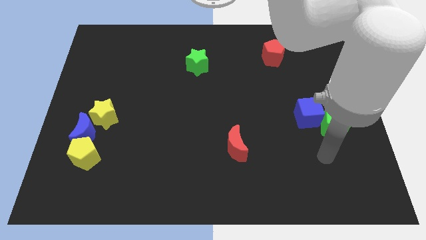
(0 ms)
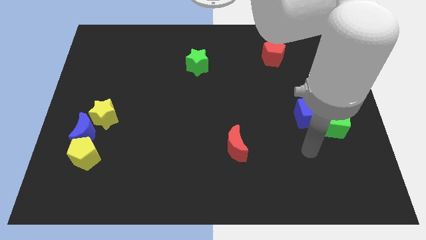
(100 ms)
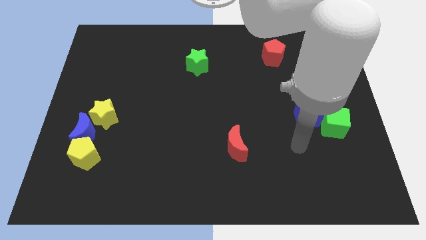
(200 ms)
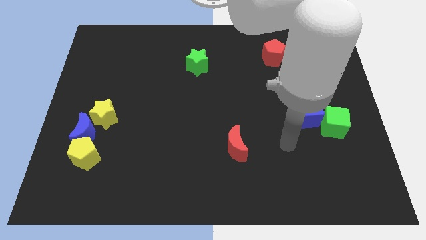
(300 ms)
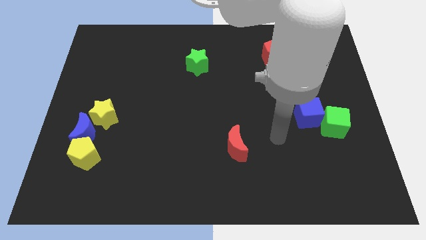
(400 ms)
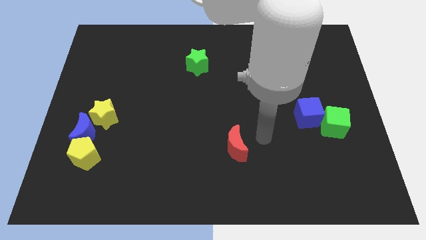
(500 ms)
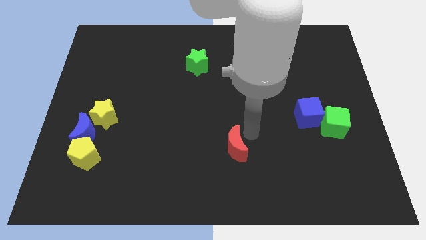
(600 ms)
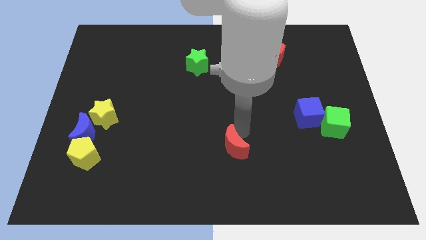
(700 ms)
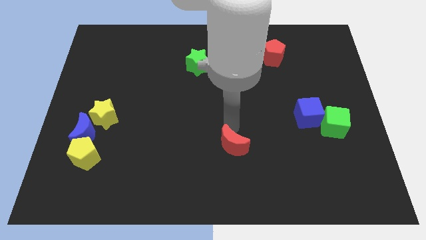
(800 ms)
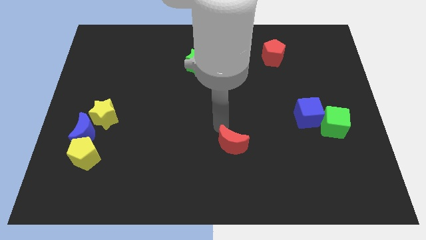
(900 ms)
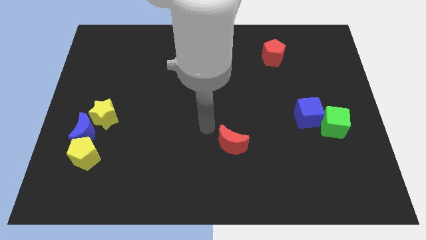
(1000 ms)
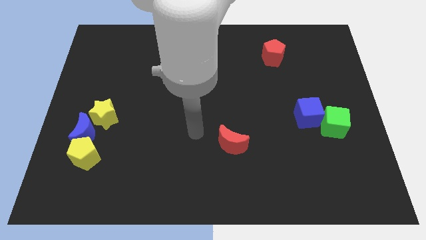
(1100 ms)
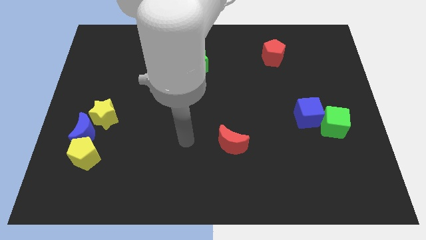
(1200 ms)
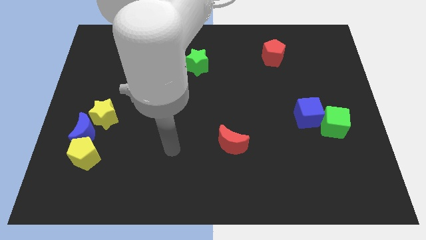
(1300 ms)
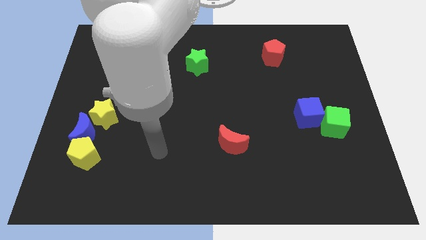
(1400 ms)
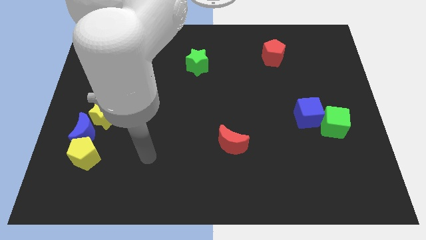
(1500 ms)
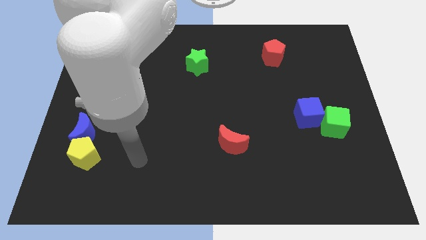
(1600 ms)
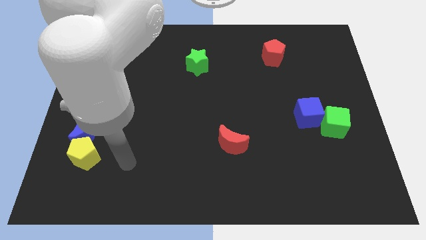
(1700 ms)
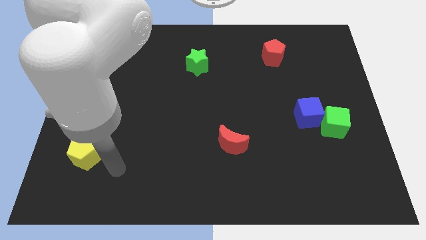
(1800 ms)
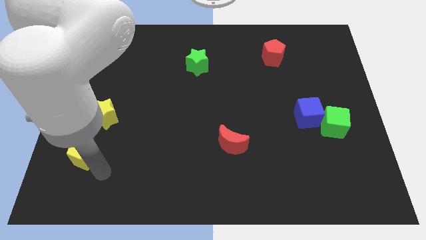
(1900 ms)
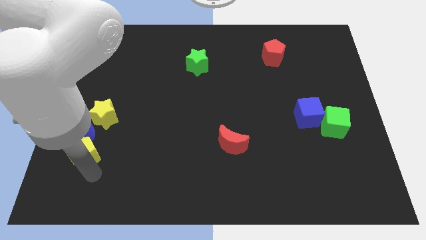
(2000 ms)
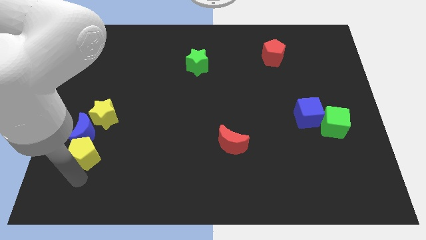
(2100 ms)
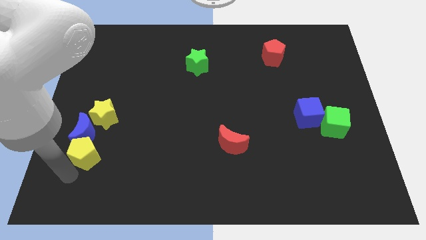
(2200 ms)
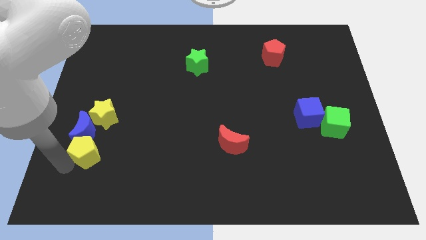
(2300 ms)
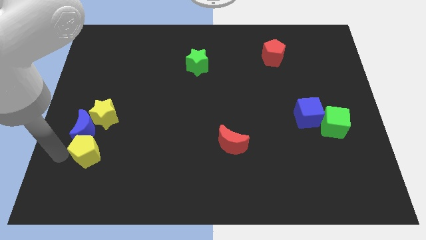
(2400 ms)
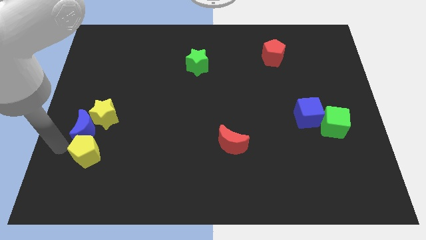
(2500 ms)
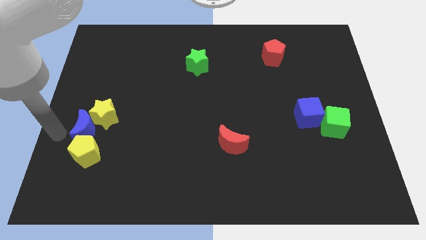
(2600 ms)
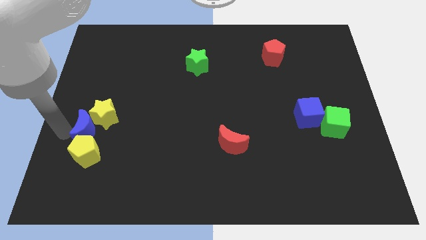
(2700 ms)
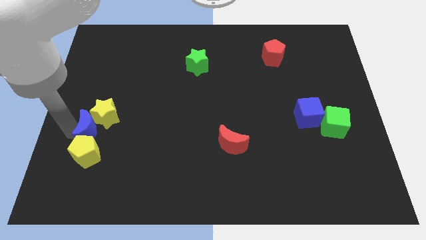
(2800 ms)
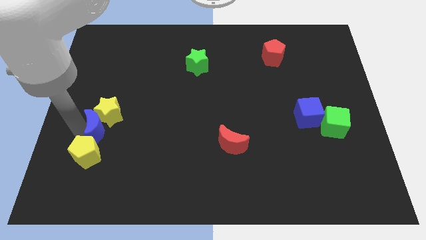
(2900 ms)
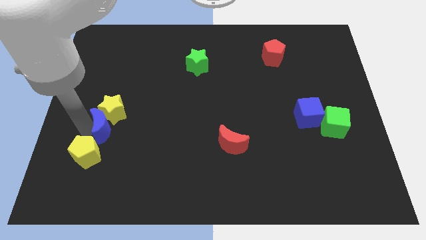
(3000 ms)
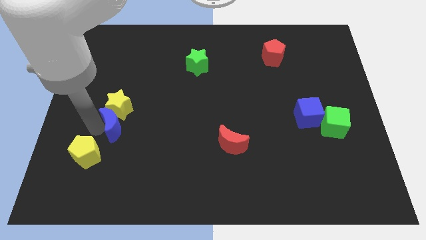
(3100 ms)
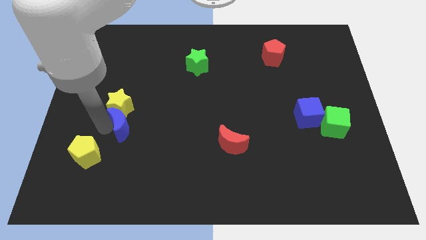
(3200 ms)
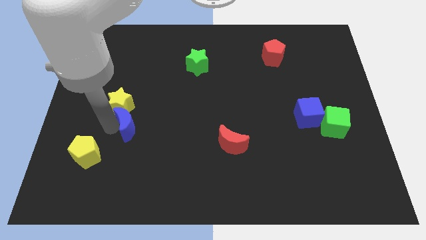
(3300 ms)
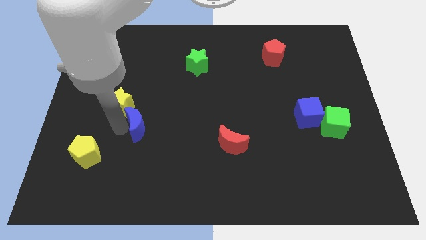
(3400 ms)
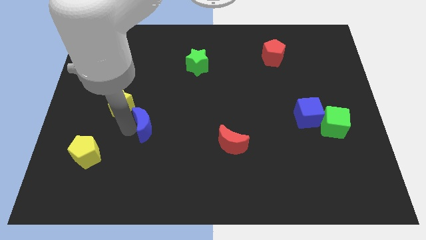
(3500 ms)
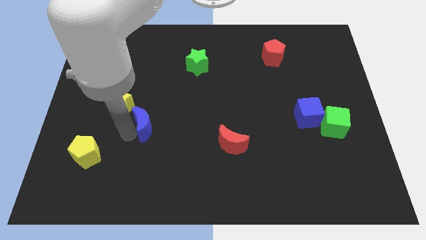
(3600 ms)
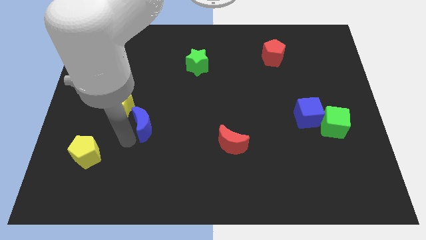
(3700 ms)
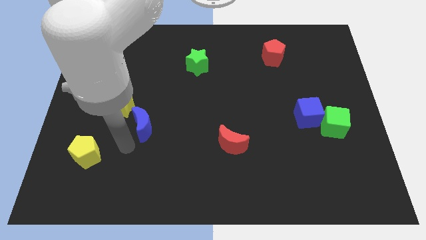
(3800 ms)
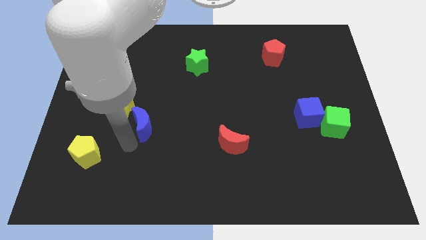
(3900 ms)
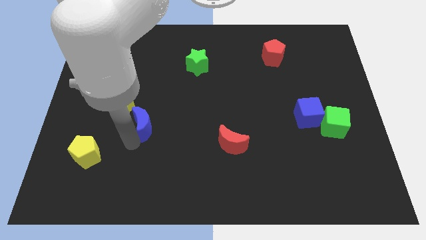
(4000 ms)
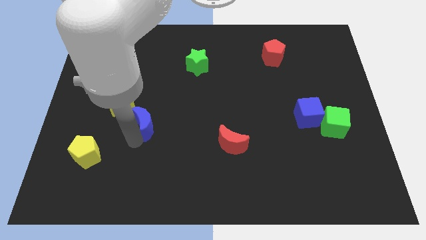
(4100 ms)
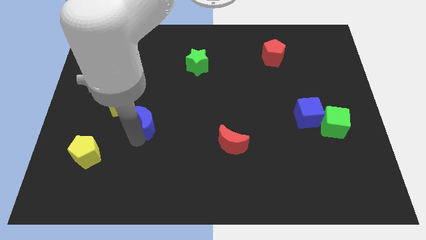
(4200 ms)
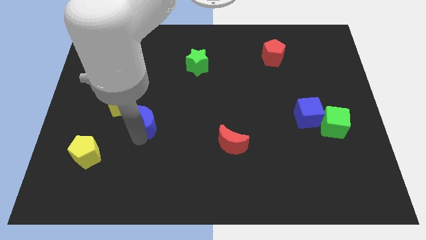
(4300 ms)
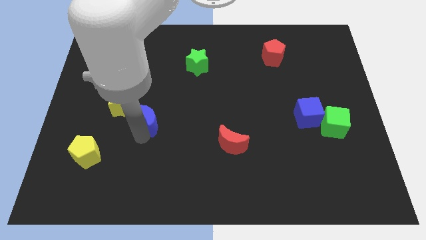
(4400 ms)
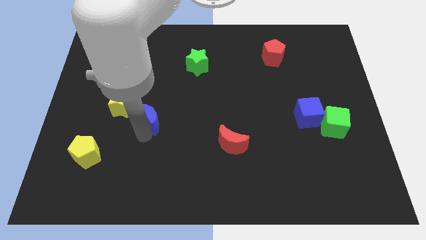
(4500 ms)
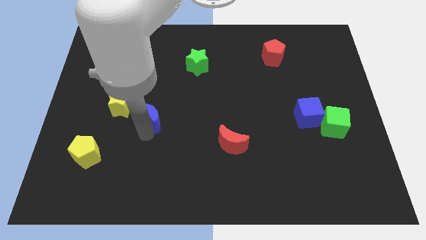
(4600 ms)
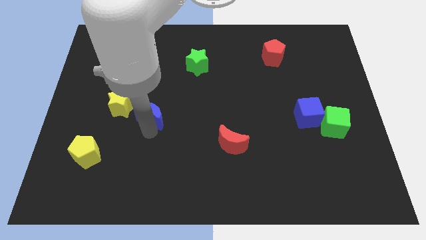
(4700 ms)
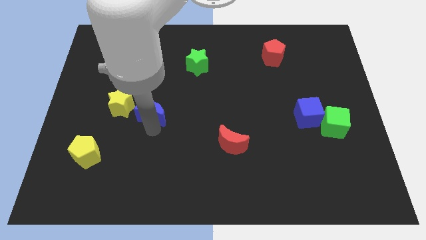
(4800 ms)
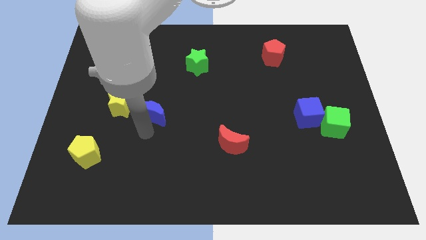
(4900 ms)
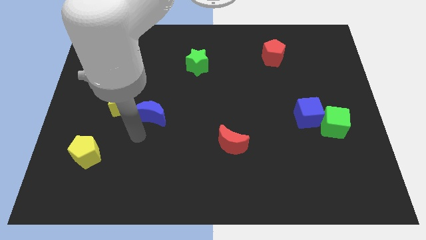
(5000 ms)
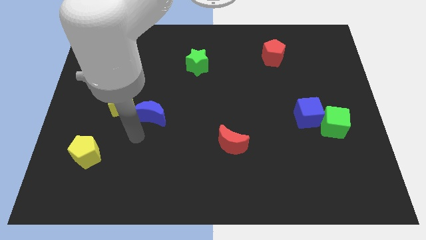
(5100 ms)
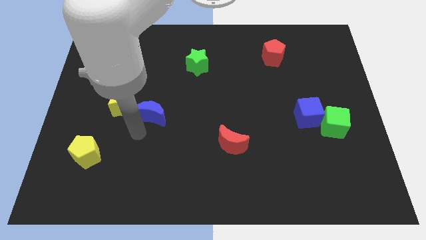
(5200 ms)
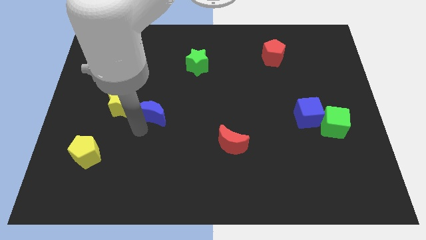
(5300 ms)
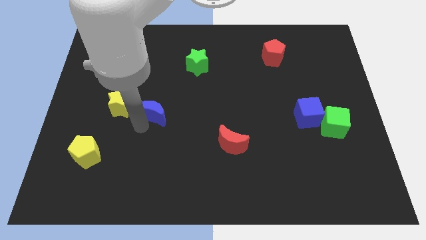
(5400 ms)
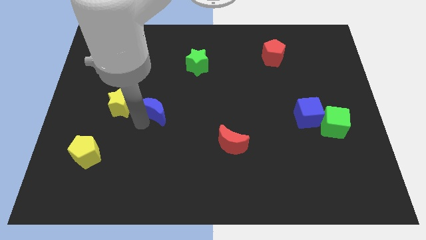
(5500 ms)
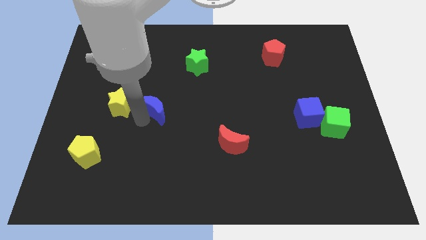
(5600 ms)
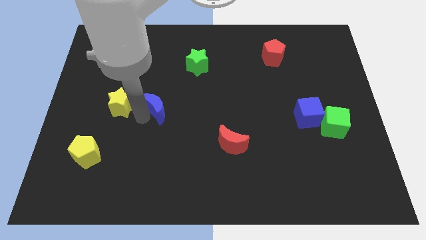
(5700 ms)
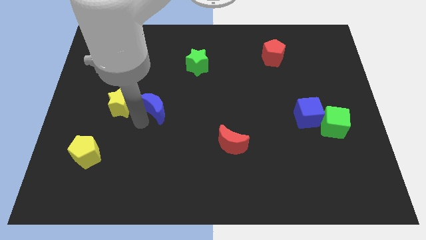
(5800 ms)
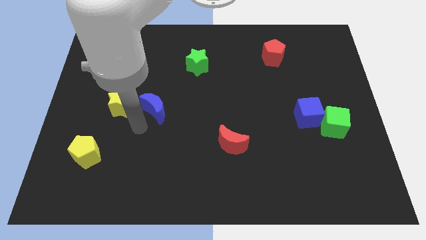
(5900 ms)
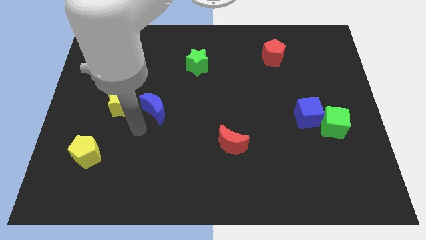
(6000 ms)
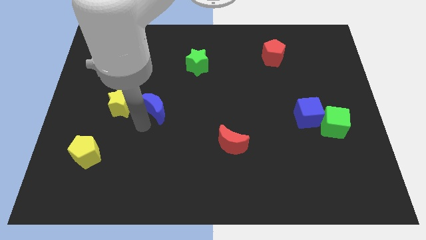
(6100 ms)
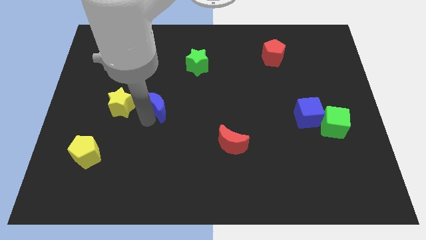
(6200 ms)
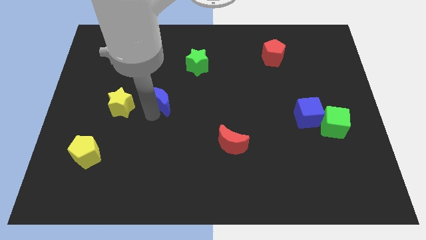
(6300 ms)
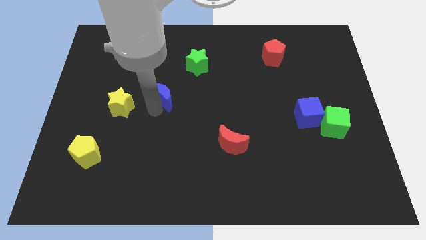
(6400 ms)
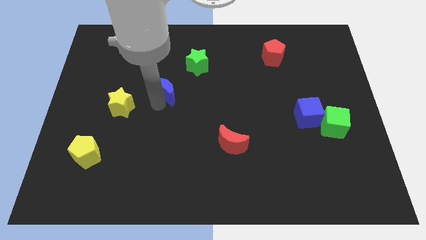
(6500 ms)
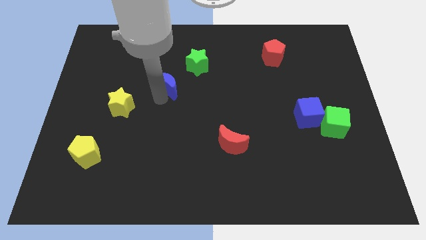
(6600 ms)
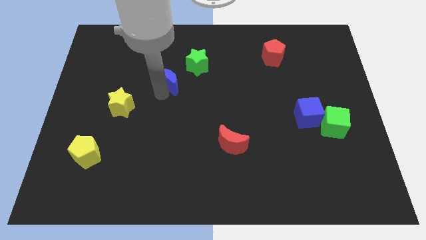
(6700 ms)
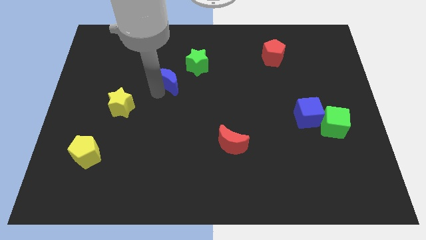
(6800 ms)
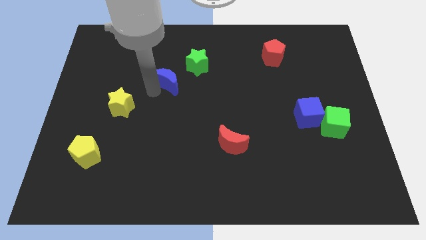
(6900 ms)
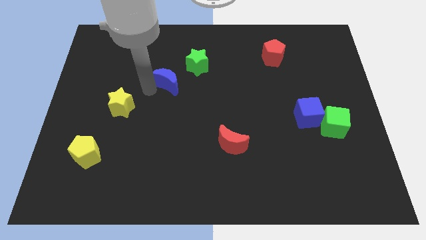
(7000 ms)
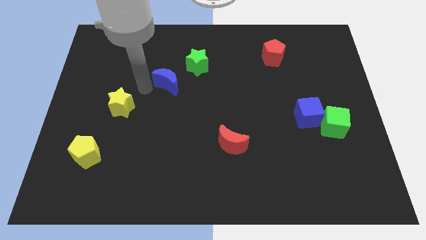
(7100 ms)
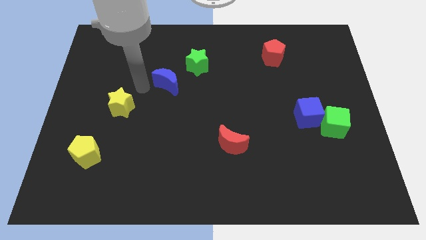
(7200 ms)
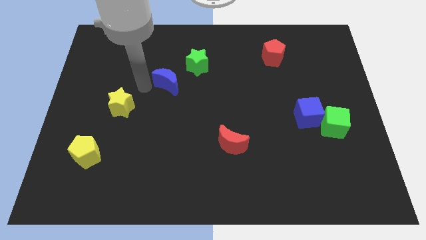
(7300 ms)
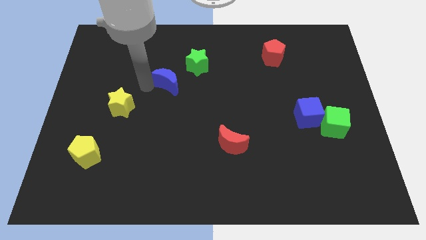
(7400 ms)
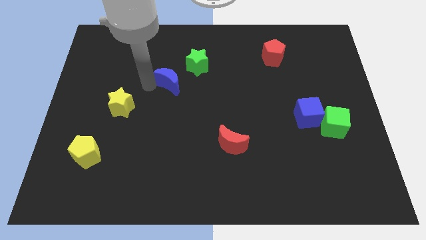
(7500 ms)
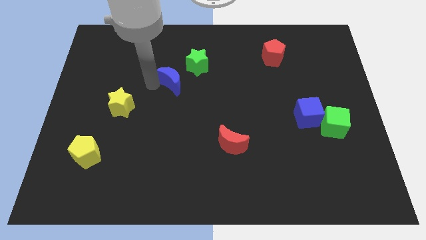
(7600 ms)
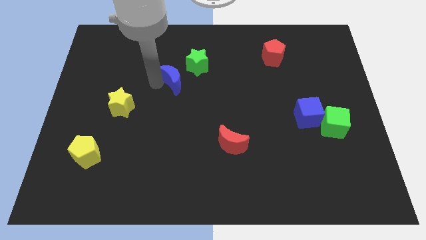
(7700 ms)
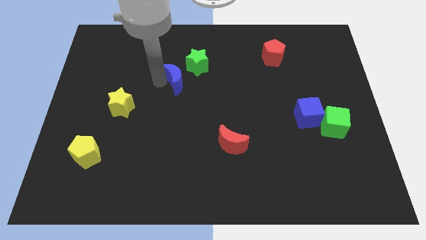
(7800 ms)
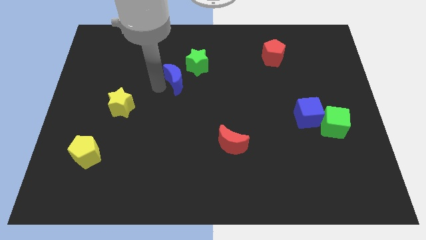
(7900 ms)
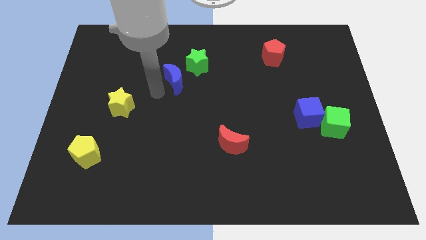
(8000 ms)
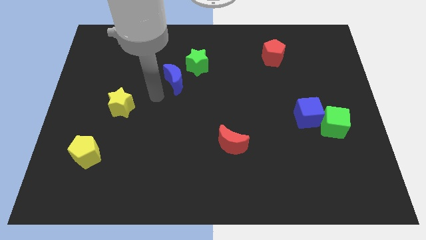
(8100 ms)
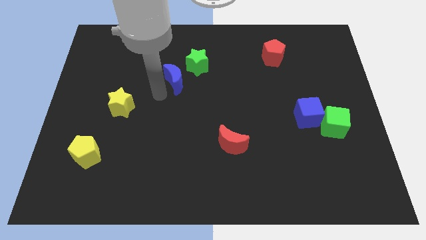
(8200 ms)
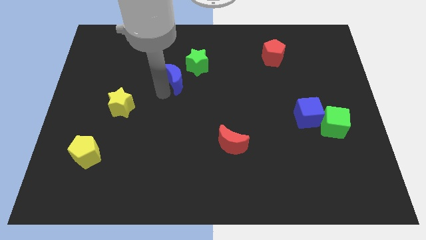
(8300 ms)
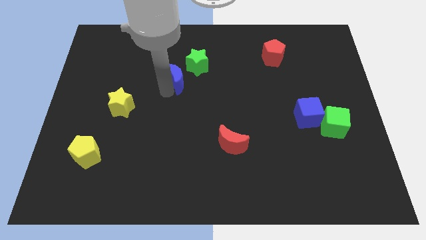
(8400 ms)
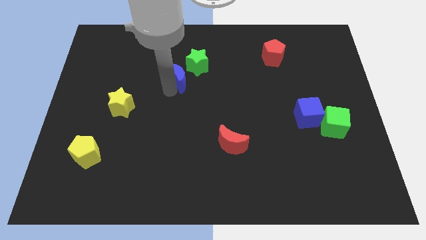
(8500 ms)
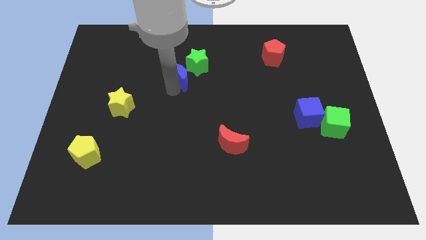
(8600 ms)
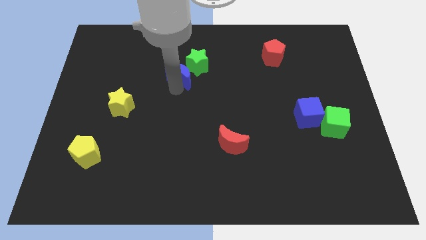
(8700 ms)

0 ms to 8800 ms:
move the blue moon towards the green star
